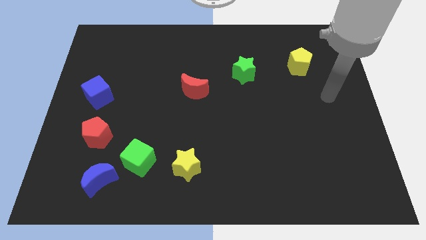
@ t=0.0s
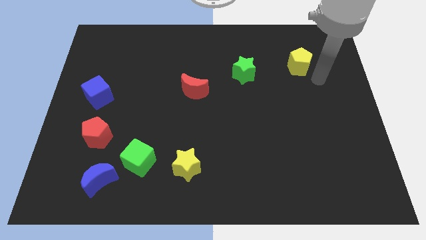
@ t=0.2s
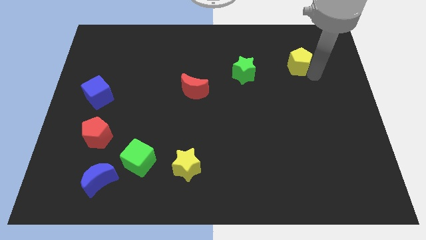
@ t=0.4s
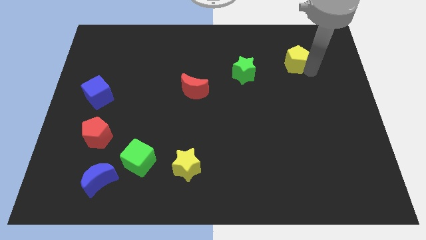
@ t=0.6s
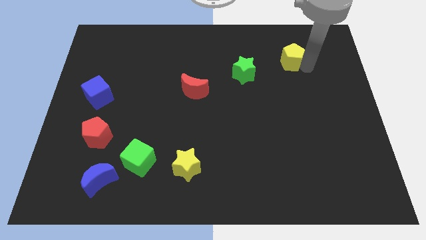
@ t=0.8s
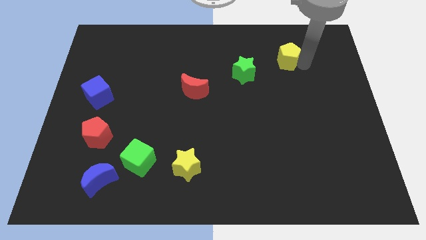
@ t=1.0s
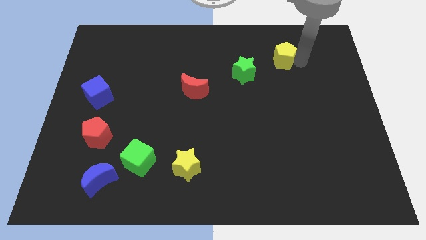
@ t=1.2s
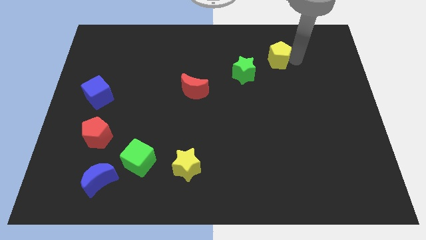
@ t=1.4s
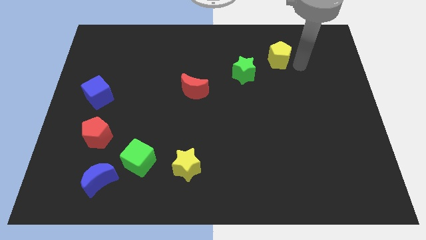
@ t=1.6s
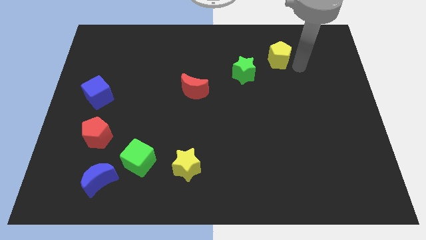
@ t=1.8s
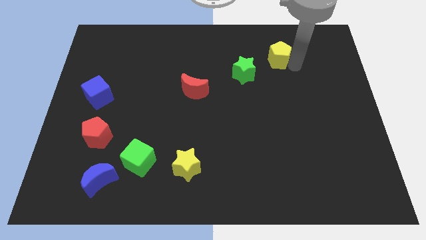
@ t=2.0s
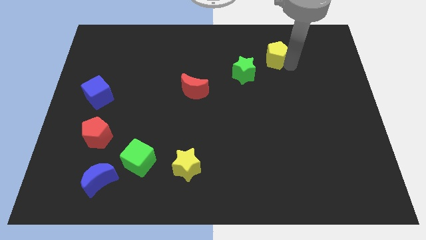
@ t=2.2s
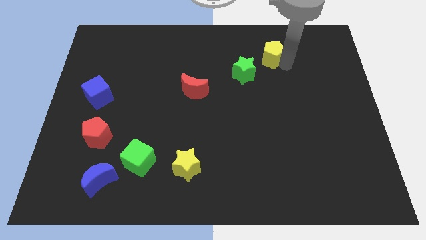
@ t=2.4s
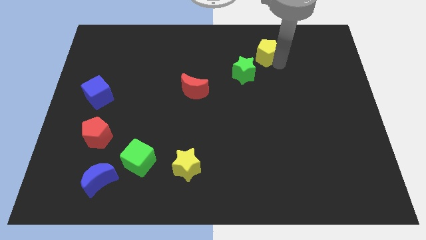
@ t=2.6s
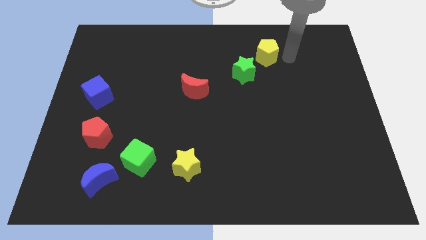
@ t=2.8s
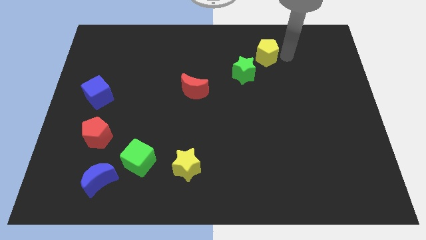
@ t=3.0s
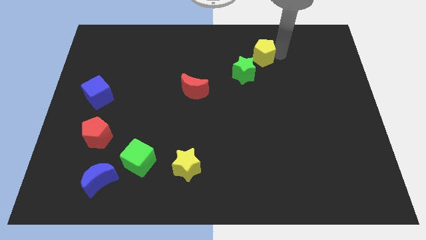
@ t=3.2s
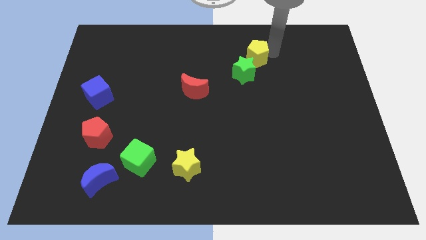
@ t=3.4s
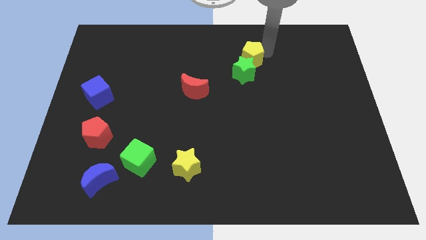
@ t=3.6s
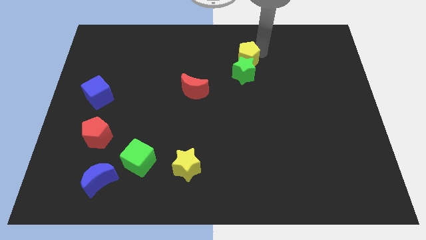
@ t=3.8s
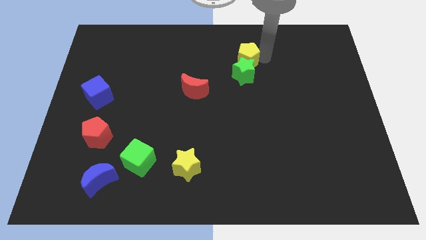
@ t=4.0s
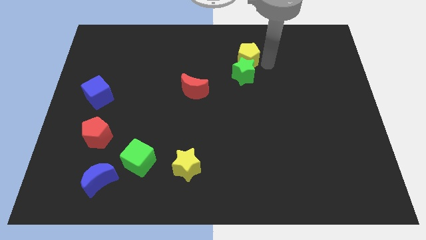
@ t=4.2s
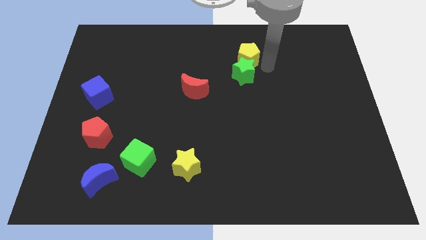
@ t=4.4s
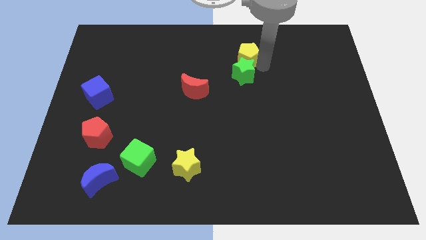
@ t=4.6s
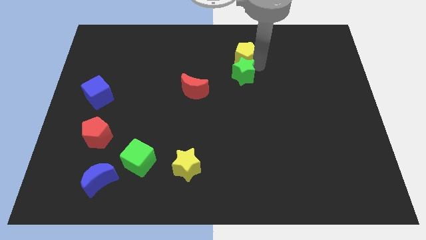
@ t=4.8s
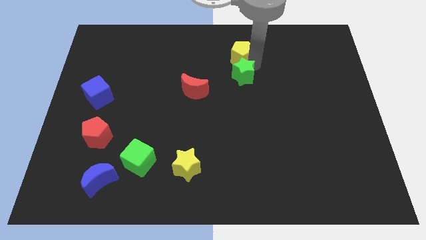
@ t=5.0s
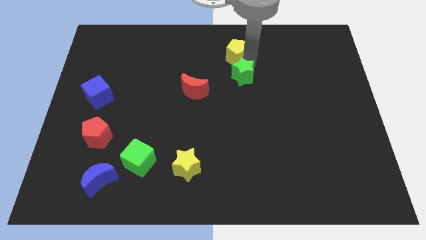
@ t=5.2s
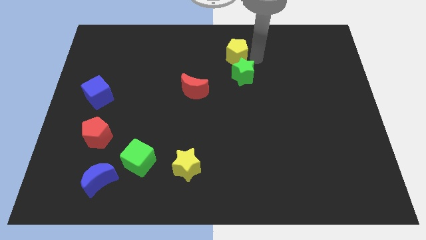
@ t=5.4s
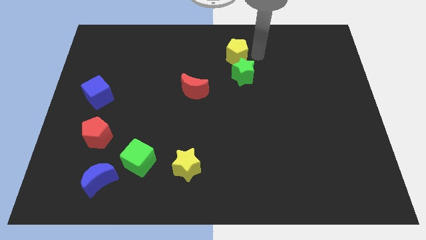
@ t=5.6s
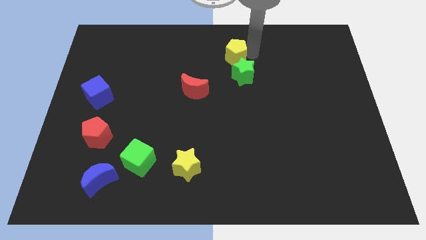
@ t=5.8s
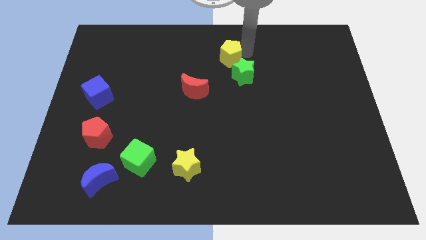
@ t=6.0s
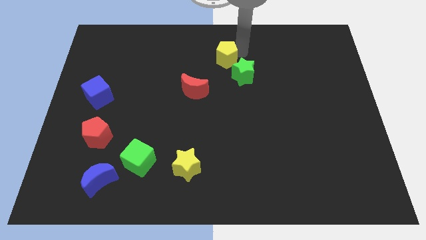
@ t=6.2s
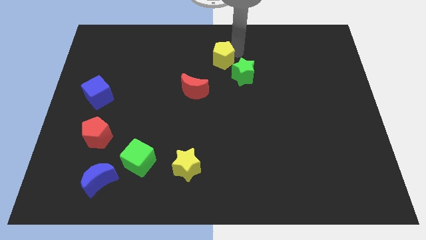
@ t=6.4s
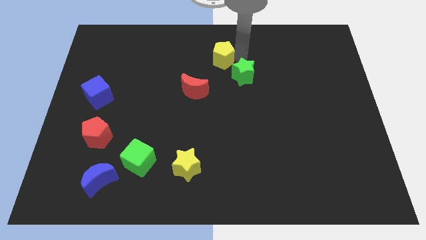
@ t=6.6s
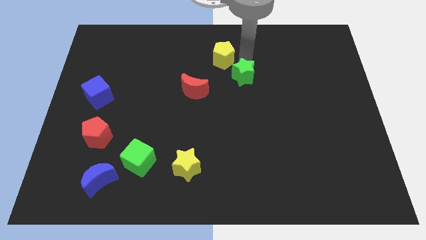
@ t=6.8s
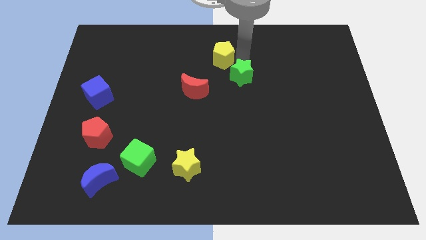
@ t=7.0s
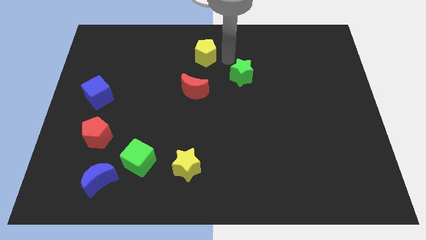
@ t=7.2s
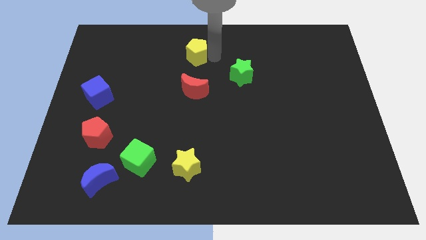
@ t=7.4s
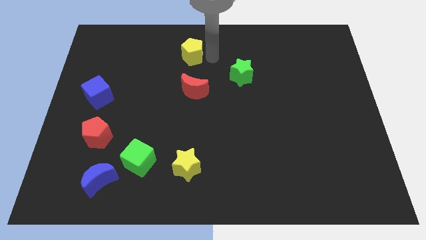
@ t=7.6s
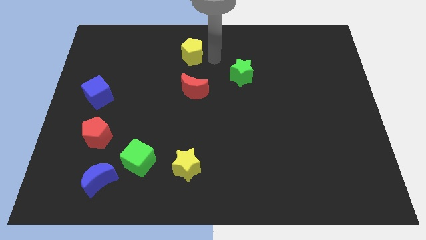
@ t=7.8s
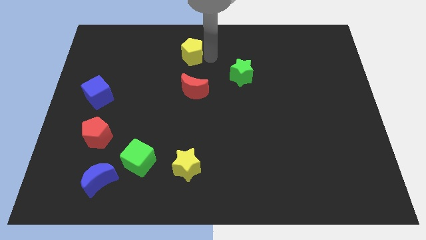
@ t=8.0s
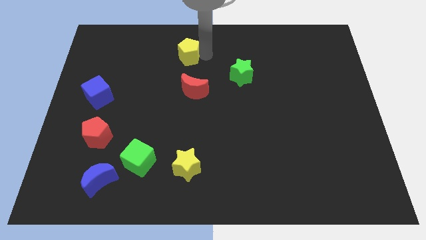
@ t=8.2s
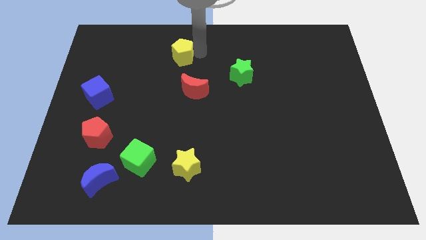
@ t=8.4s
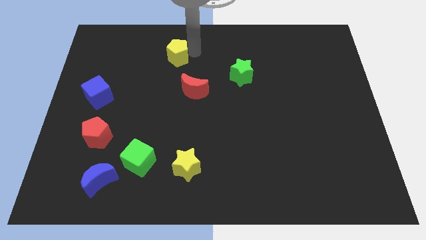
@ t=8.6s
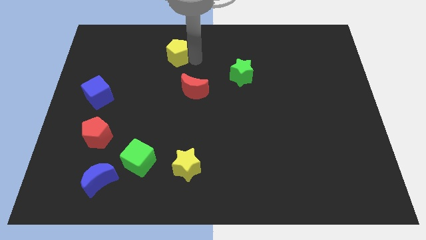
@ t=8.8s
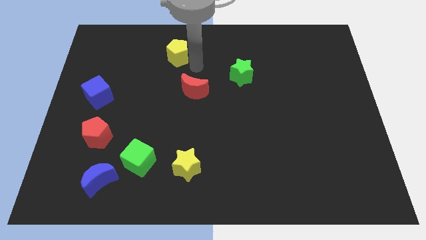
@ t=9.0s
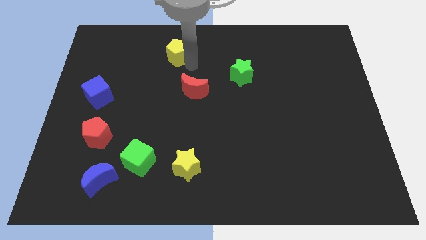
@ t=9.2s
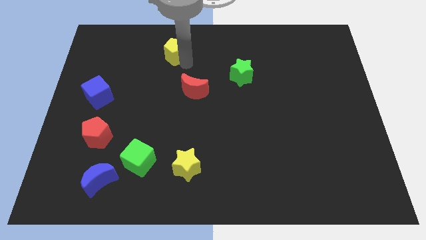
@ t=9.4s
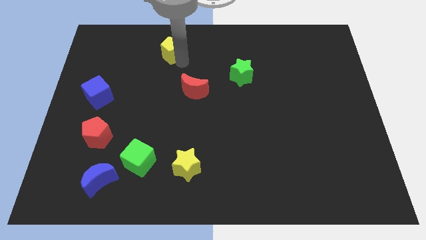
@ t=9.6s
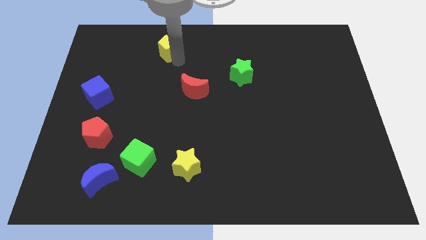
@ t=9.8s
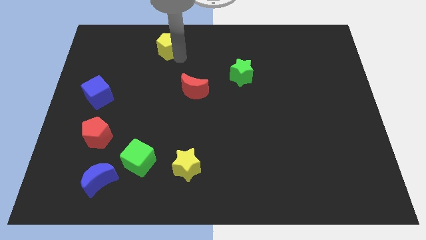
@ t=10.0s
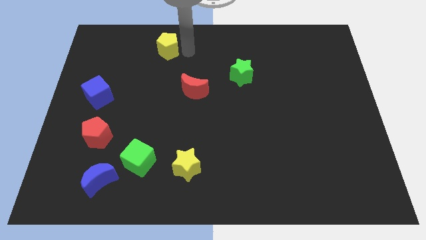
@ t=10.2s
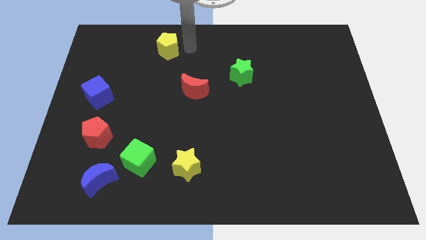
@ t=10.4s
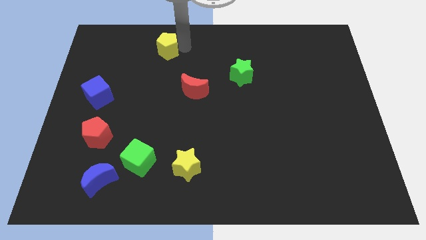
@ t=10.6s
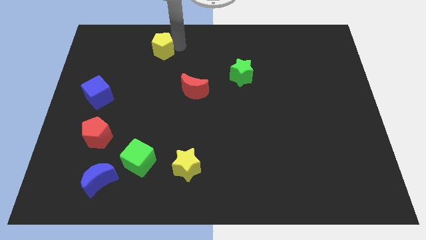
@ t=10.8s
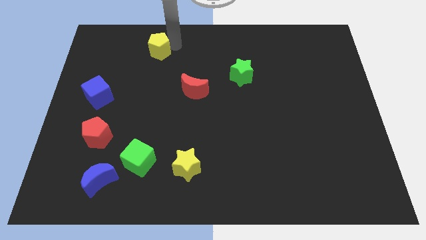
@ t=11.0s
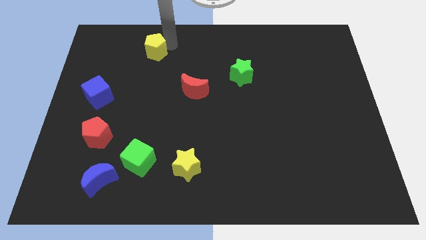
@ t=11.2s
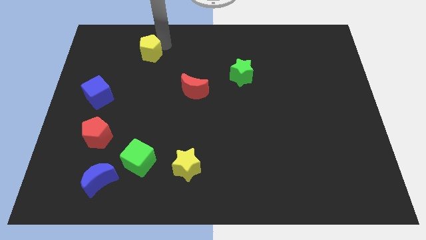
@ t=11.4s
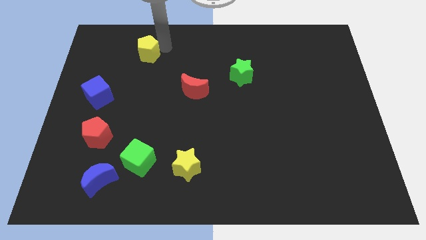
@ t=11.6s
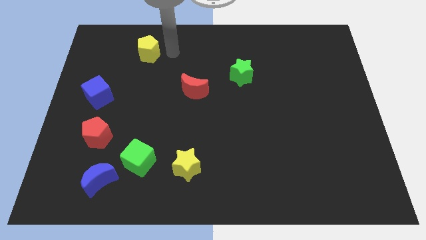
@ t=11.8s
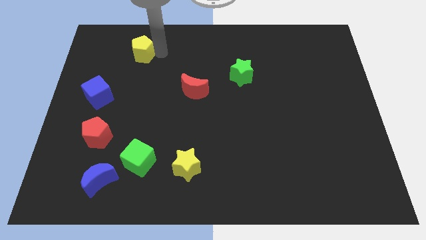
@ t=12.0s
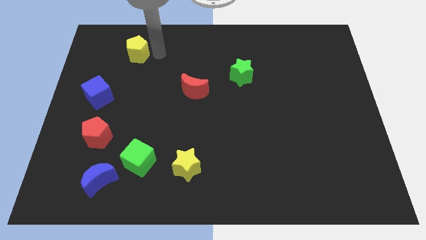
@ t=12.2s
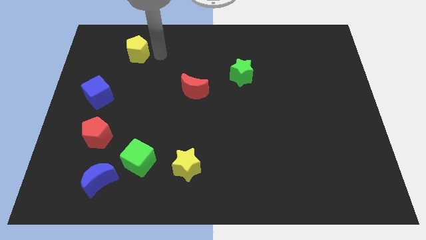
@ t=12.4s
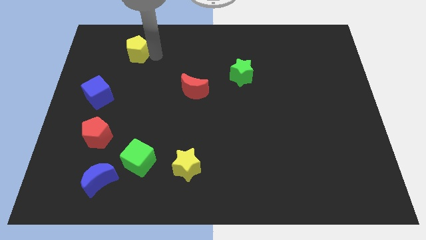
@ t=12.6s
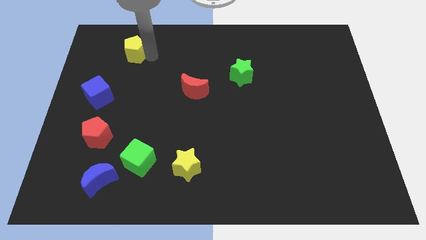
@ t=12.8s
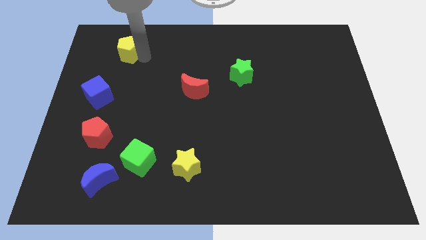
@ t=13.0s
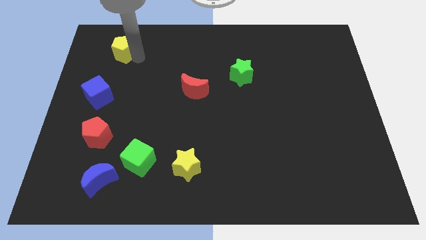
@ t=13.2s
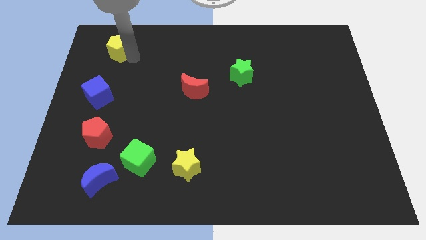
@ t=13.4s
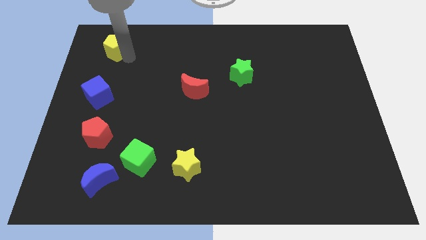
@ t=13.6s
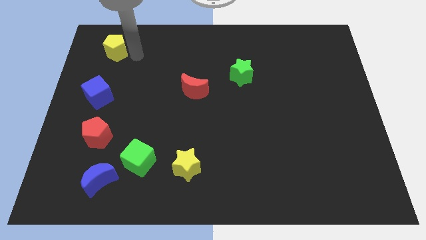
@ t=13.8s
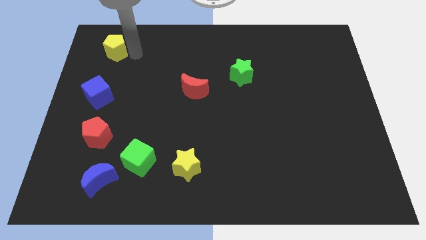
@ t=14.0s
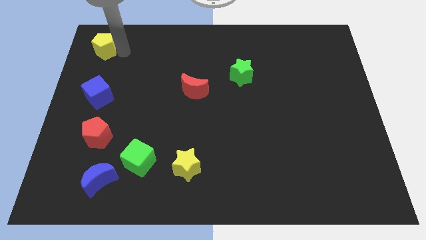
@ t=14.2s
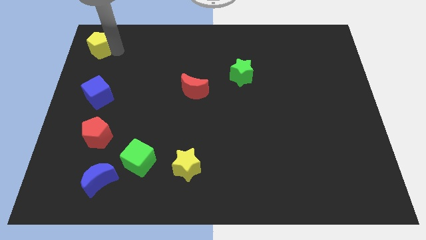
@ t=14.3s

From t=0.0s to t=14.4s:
slide the yellow pentagon to the top left
